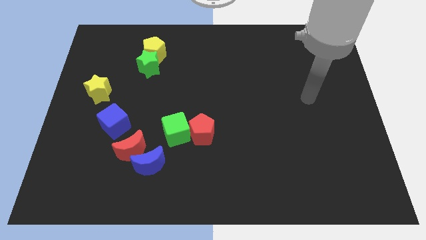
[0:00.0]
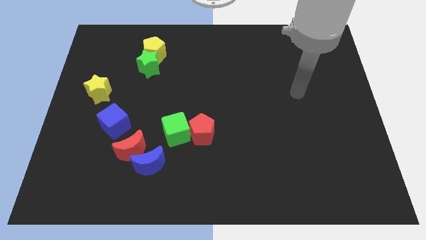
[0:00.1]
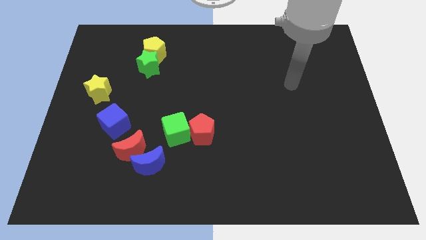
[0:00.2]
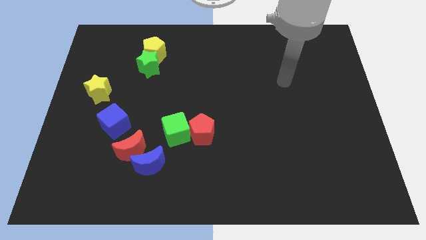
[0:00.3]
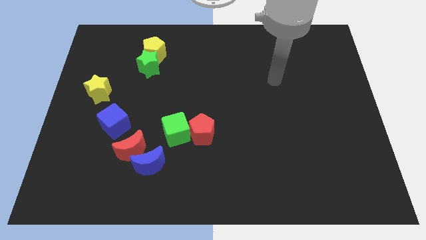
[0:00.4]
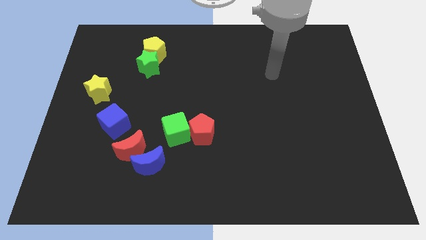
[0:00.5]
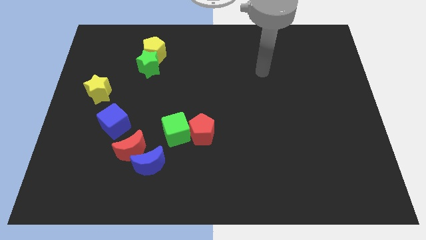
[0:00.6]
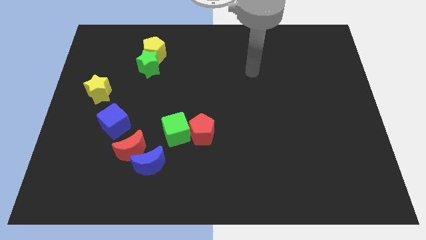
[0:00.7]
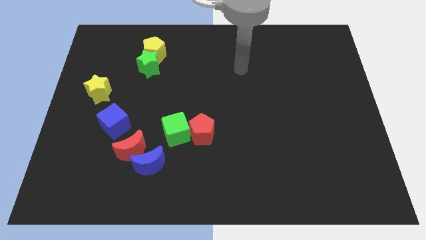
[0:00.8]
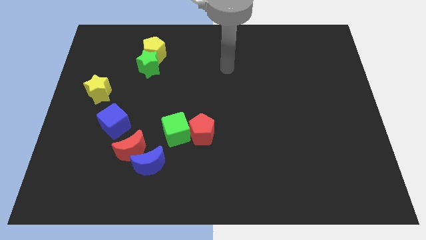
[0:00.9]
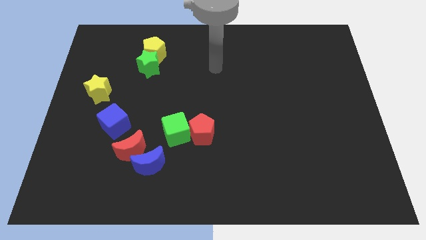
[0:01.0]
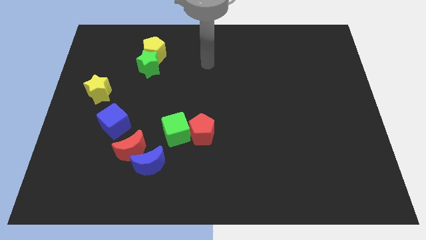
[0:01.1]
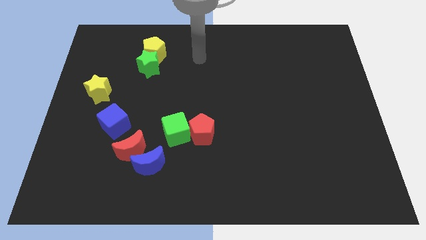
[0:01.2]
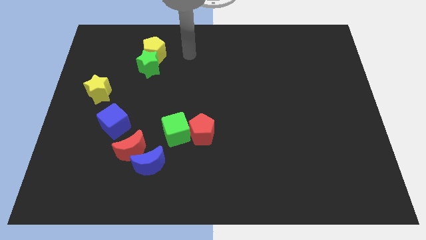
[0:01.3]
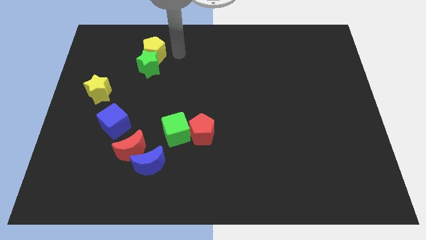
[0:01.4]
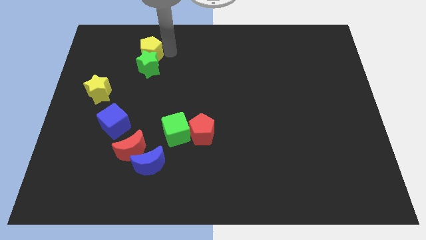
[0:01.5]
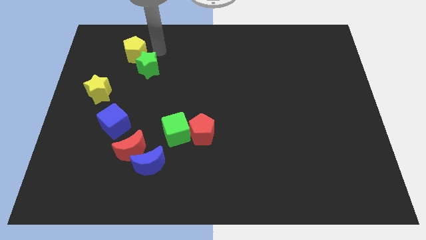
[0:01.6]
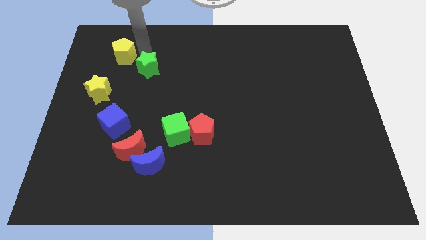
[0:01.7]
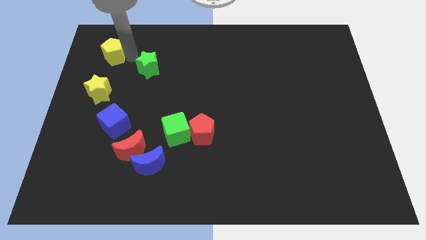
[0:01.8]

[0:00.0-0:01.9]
separate the green star from the yellow pentagon

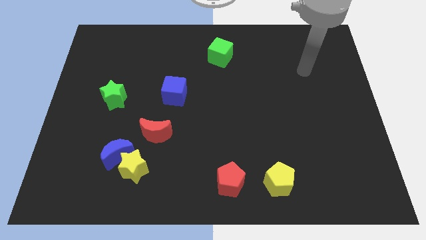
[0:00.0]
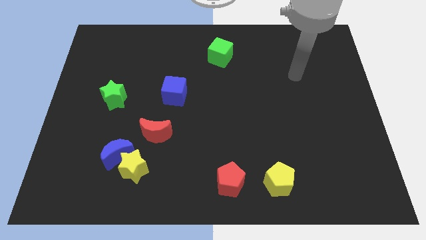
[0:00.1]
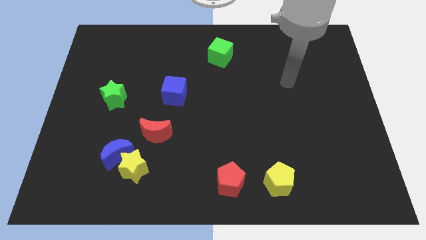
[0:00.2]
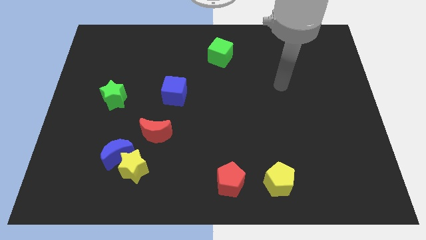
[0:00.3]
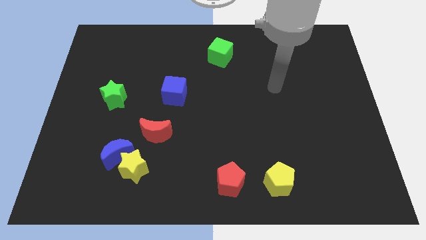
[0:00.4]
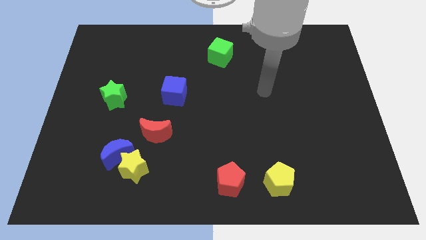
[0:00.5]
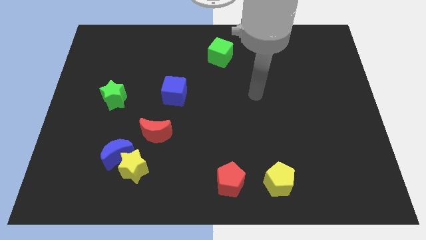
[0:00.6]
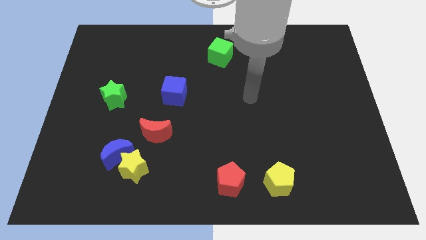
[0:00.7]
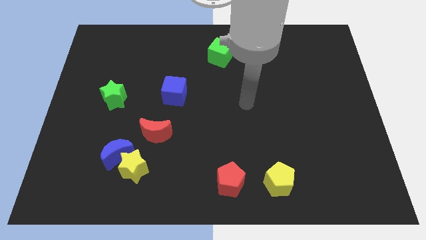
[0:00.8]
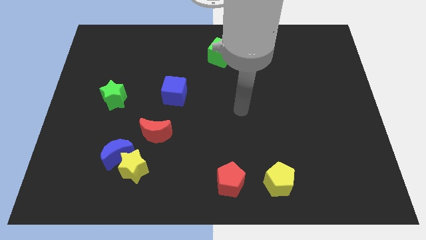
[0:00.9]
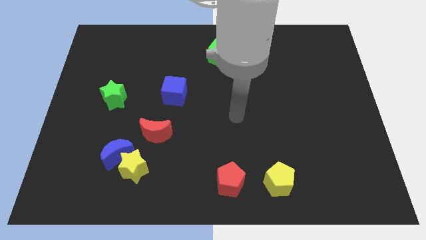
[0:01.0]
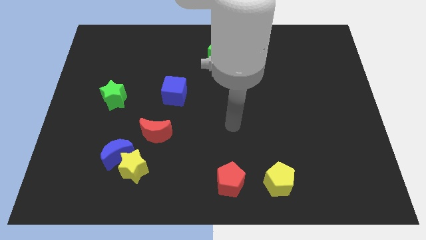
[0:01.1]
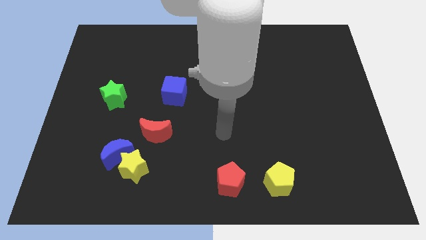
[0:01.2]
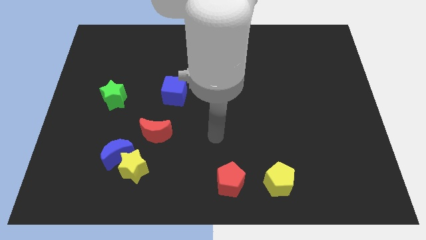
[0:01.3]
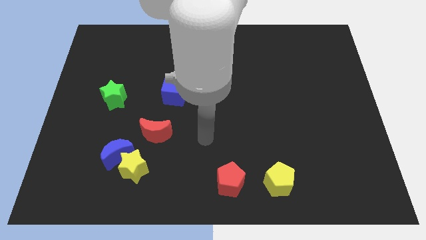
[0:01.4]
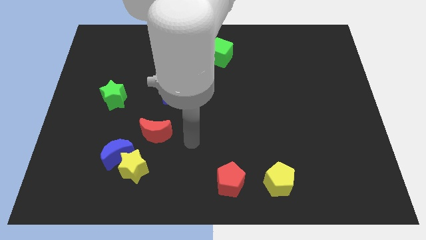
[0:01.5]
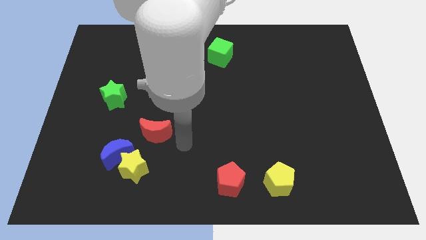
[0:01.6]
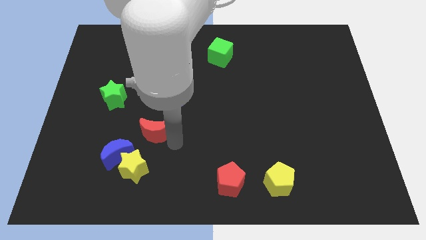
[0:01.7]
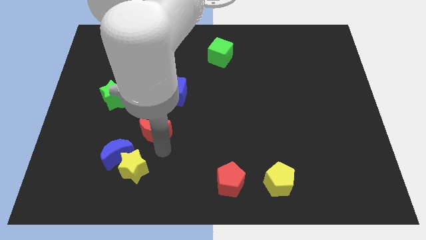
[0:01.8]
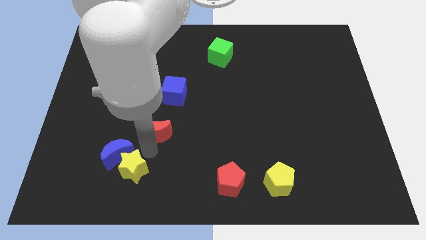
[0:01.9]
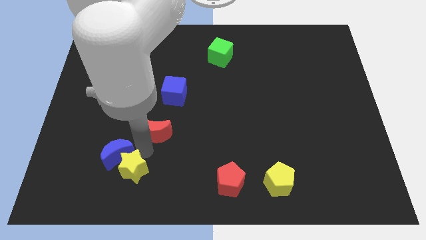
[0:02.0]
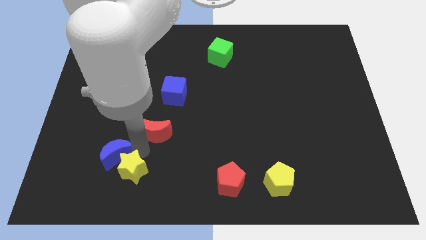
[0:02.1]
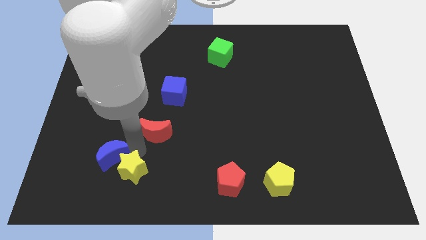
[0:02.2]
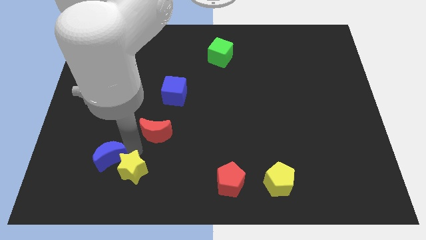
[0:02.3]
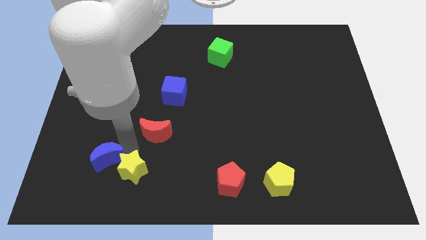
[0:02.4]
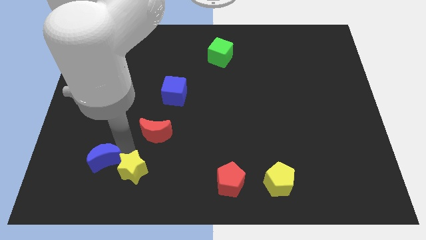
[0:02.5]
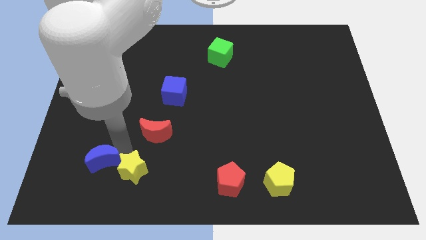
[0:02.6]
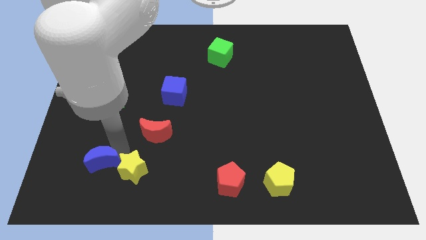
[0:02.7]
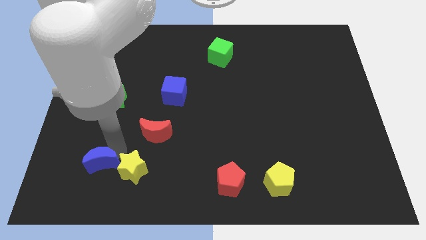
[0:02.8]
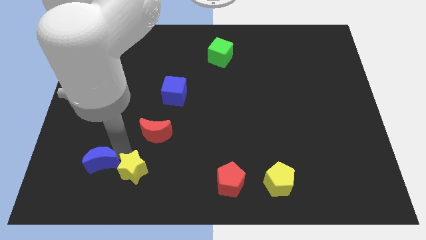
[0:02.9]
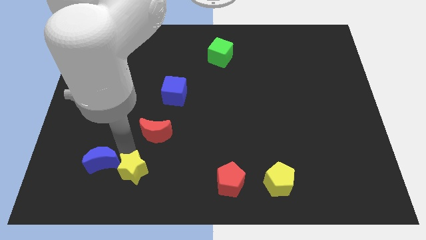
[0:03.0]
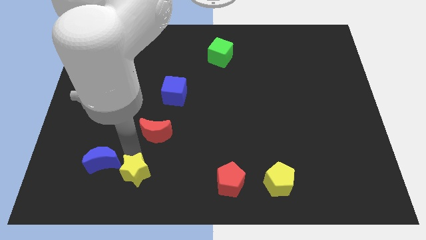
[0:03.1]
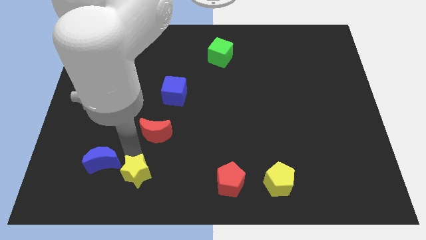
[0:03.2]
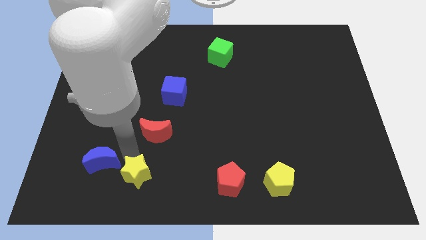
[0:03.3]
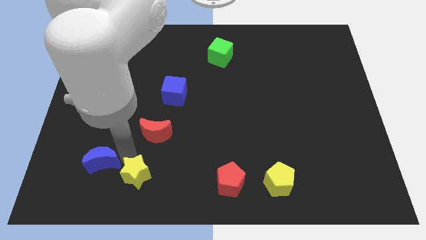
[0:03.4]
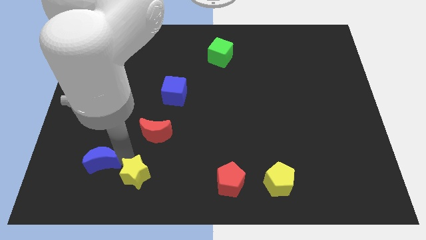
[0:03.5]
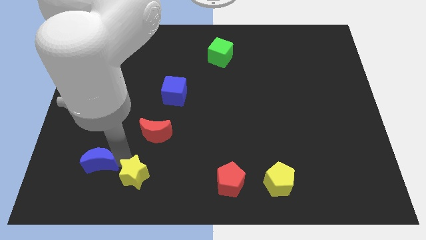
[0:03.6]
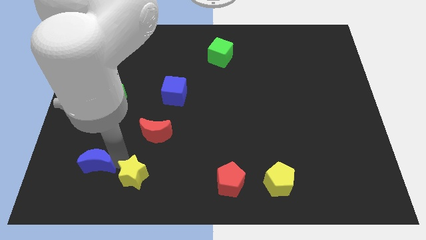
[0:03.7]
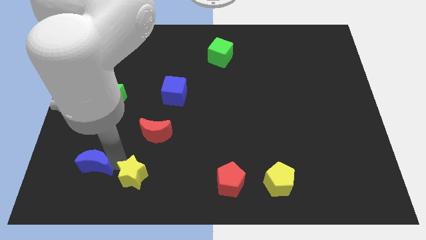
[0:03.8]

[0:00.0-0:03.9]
separate the blue moon from the yellow star and red moon

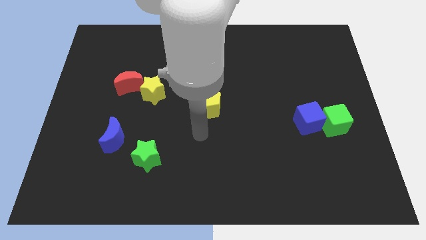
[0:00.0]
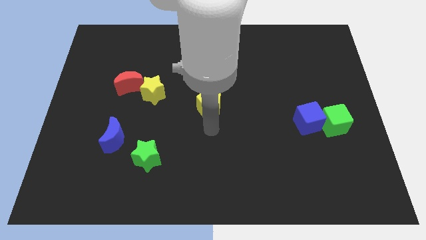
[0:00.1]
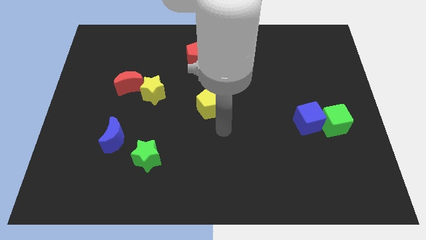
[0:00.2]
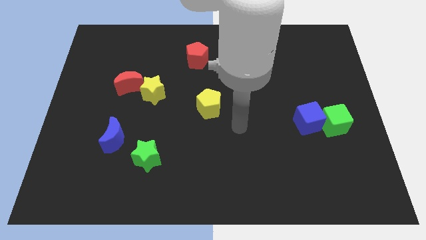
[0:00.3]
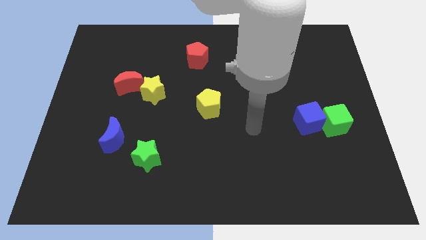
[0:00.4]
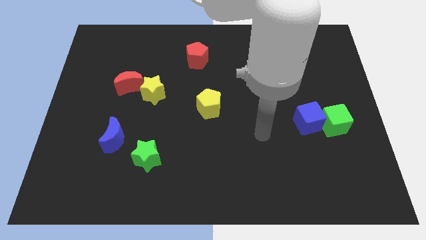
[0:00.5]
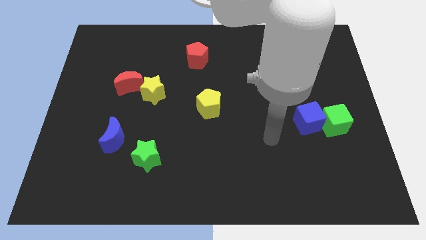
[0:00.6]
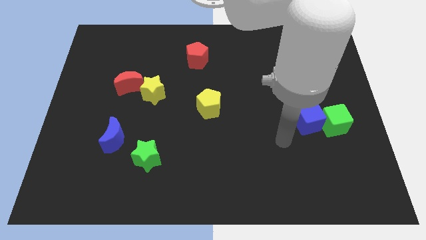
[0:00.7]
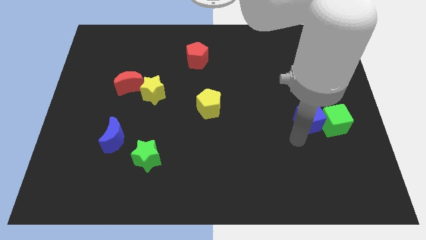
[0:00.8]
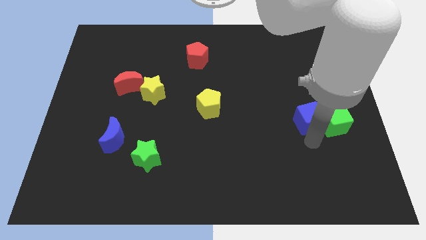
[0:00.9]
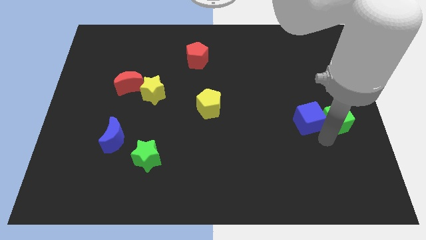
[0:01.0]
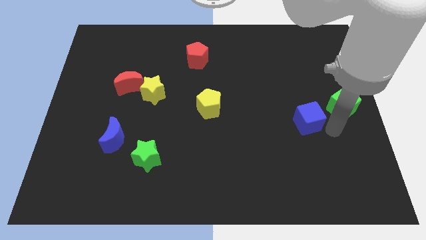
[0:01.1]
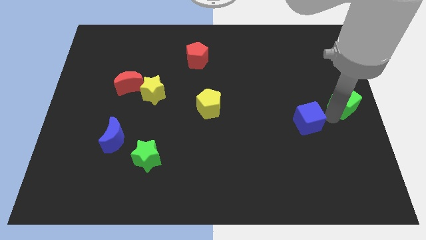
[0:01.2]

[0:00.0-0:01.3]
separate the blue cube from the green cube

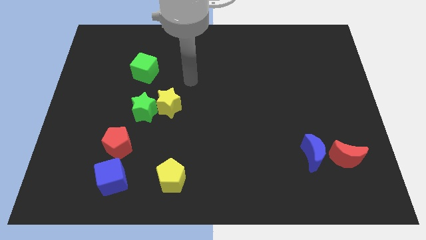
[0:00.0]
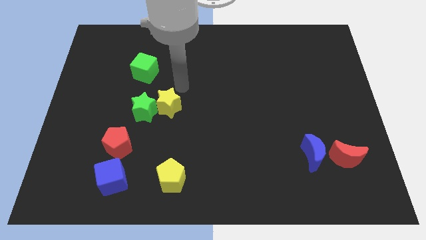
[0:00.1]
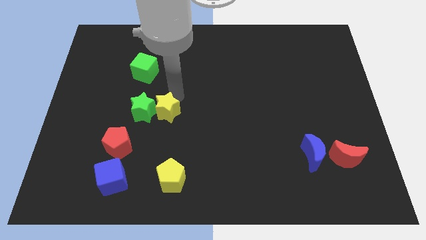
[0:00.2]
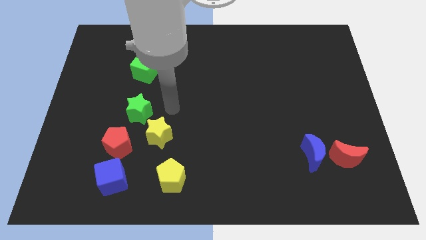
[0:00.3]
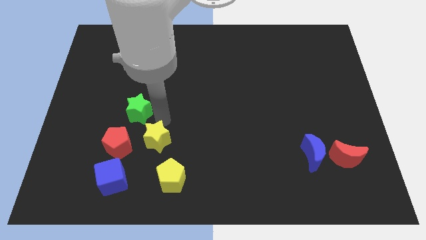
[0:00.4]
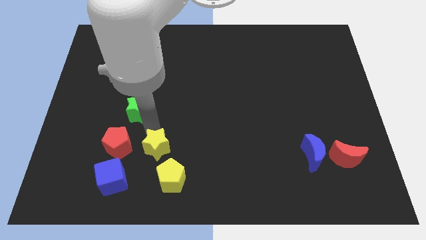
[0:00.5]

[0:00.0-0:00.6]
pull the green star apart from the yellow star

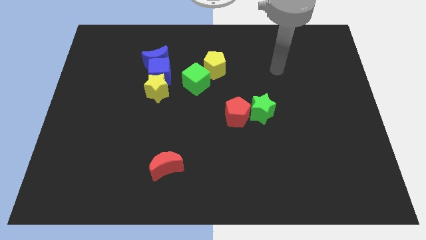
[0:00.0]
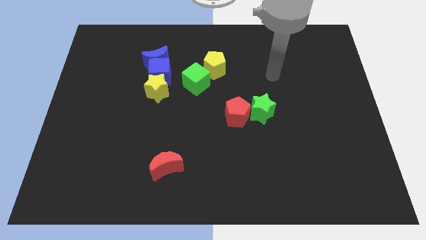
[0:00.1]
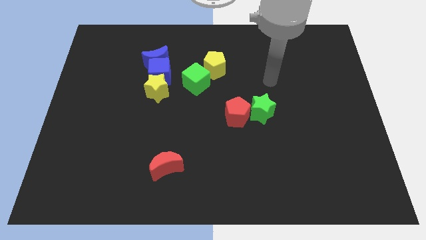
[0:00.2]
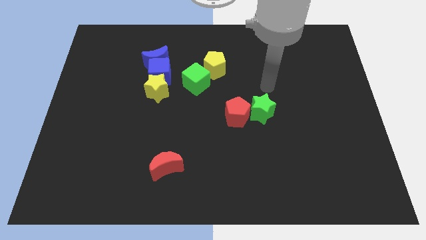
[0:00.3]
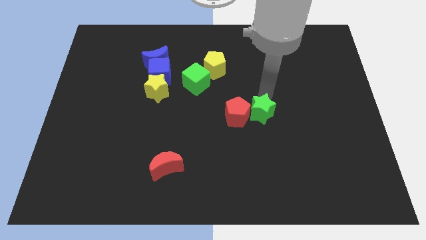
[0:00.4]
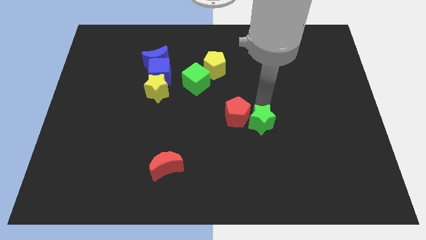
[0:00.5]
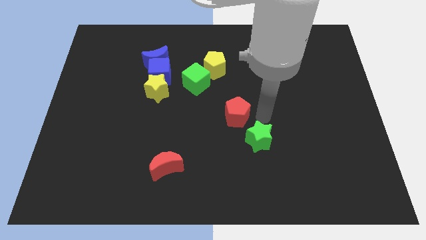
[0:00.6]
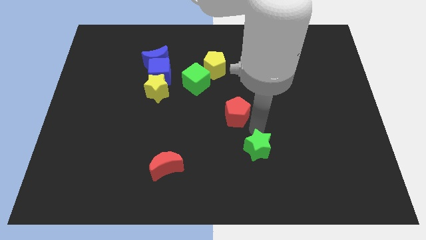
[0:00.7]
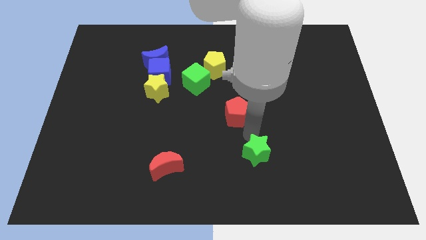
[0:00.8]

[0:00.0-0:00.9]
separate the red pentagon from the green star

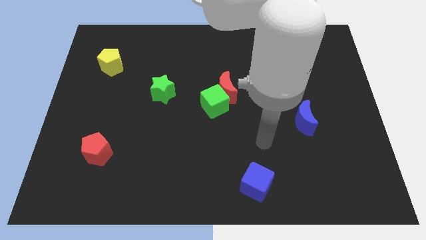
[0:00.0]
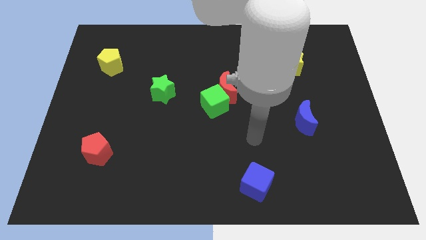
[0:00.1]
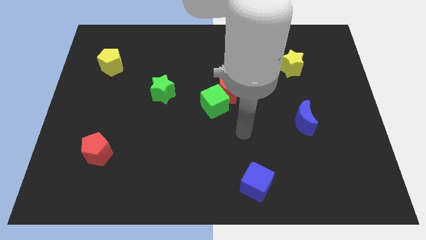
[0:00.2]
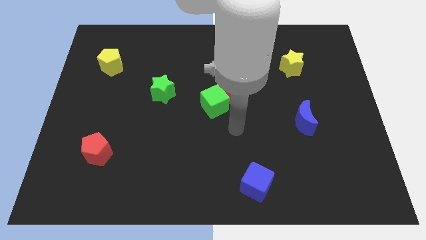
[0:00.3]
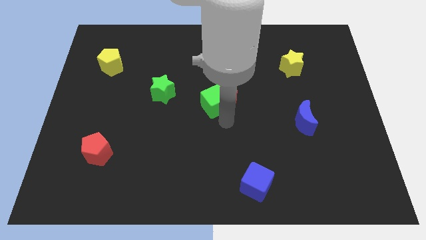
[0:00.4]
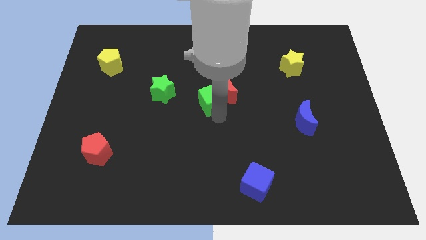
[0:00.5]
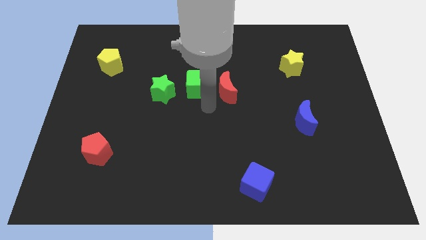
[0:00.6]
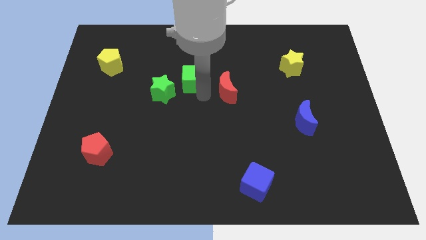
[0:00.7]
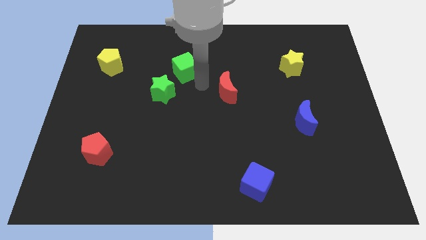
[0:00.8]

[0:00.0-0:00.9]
separate the red moon from the green cube
